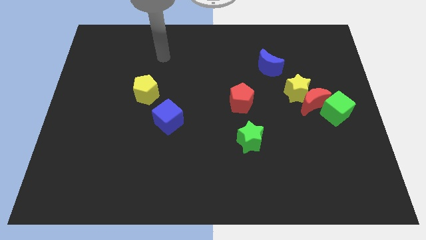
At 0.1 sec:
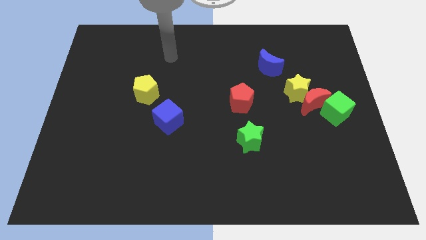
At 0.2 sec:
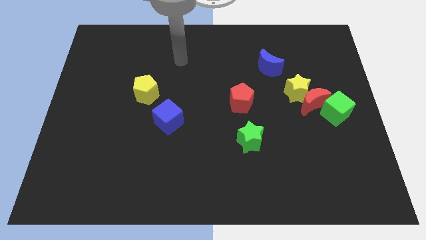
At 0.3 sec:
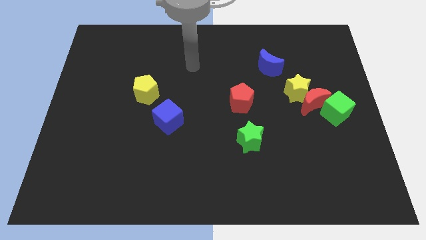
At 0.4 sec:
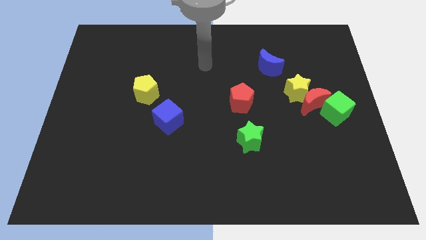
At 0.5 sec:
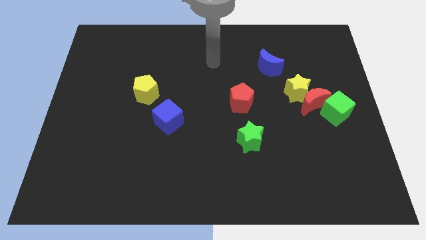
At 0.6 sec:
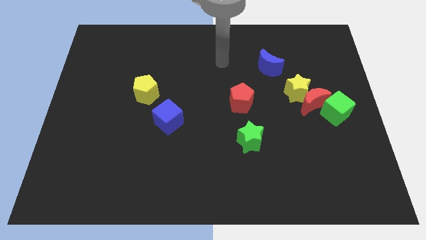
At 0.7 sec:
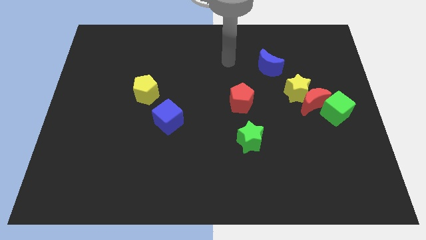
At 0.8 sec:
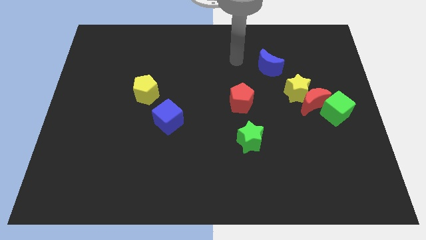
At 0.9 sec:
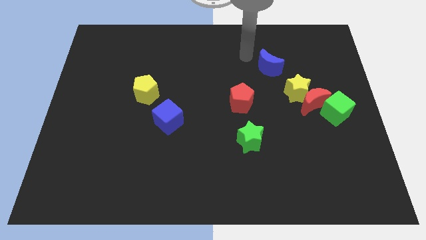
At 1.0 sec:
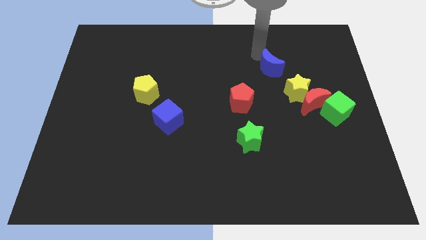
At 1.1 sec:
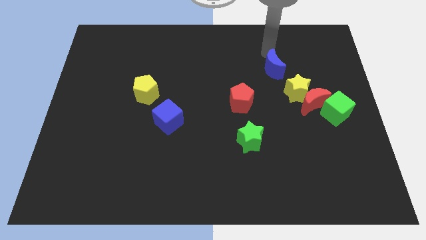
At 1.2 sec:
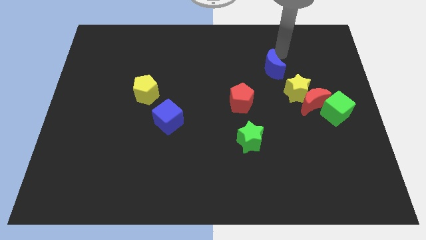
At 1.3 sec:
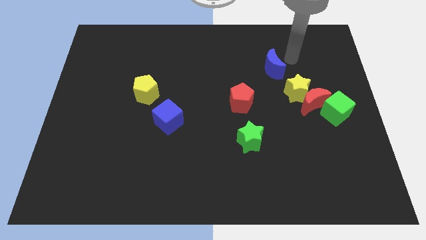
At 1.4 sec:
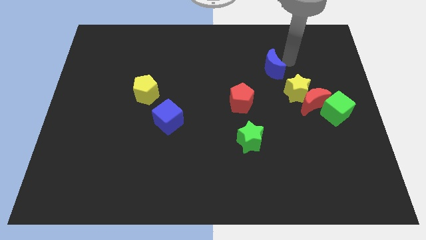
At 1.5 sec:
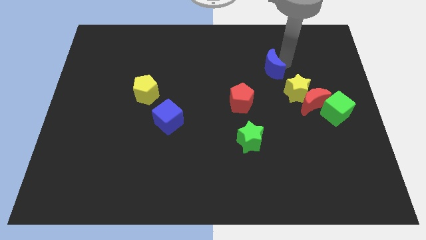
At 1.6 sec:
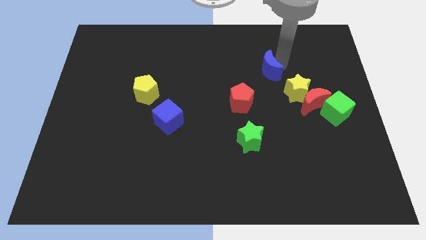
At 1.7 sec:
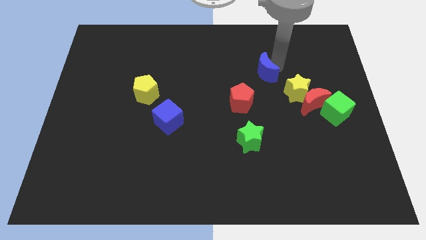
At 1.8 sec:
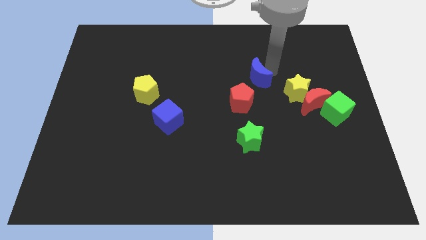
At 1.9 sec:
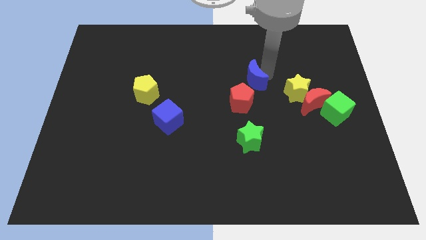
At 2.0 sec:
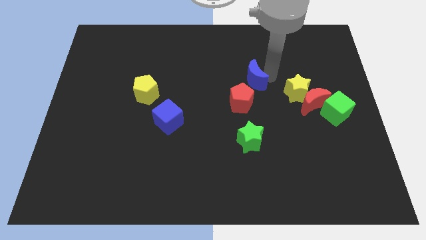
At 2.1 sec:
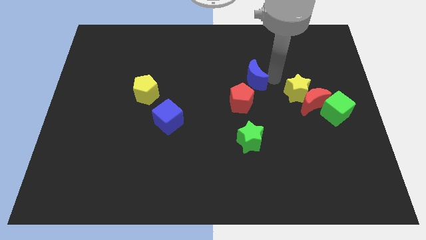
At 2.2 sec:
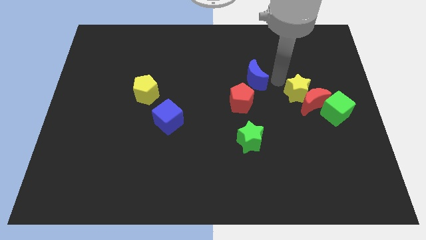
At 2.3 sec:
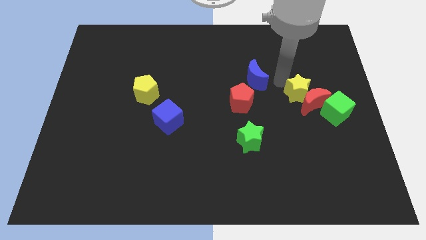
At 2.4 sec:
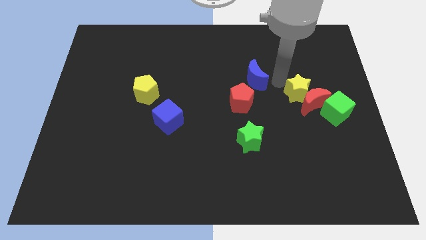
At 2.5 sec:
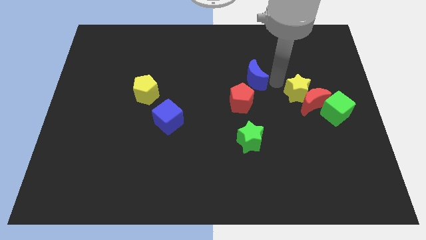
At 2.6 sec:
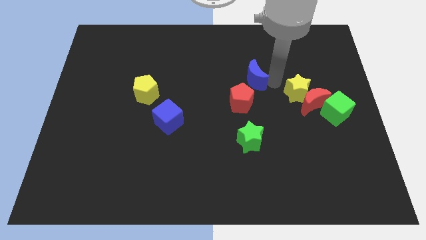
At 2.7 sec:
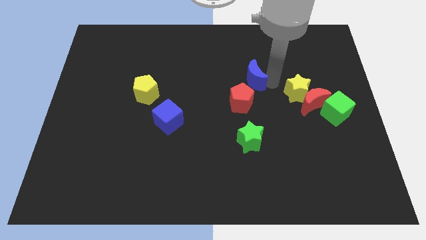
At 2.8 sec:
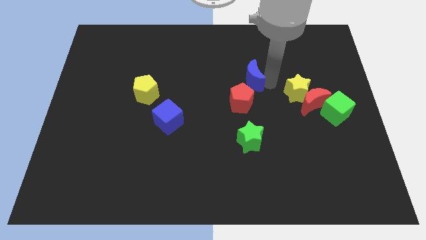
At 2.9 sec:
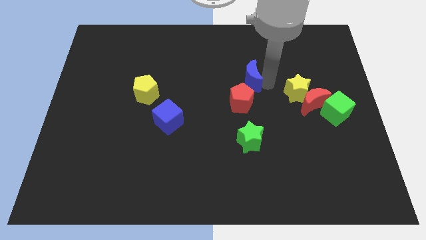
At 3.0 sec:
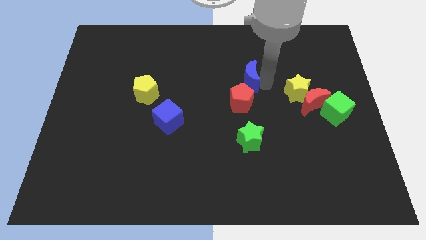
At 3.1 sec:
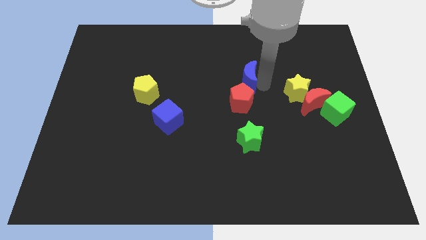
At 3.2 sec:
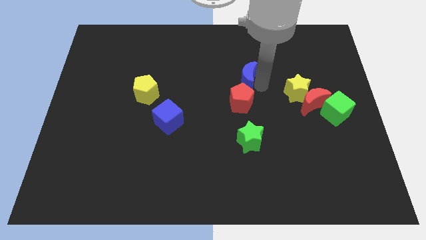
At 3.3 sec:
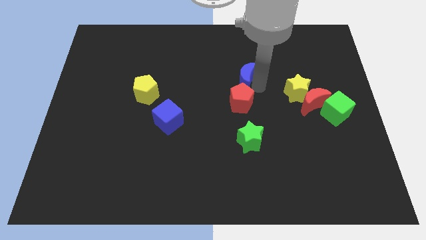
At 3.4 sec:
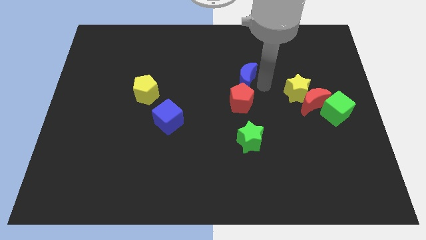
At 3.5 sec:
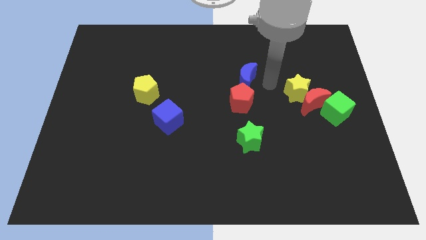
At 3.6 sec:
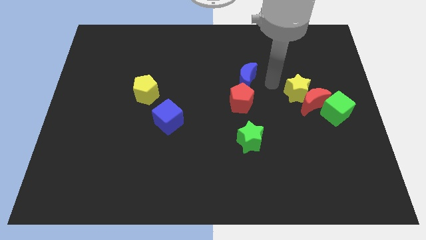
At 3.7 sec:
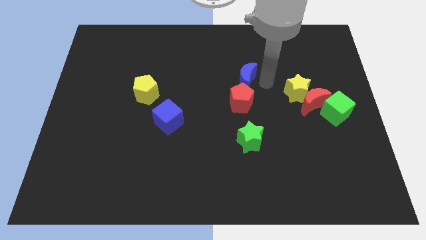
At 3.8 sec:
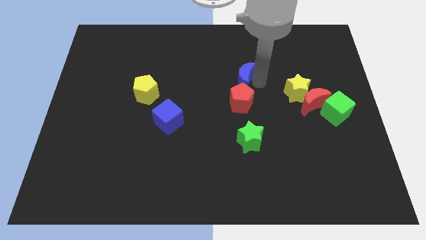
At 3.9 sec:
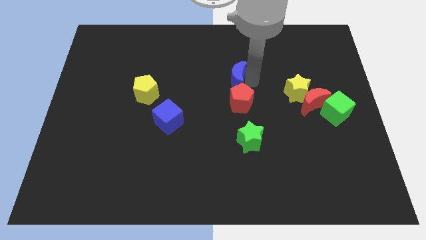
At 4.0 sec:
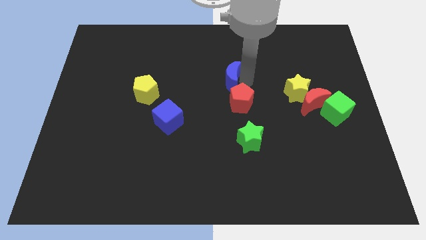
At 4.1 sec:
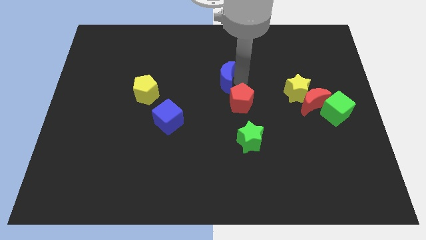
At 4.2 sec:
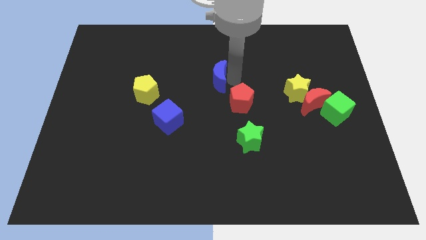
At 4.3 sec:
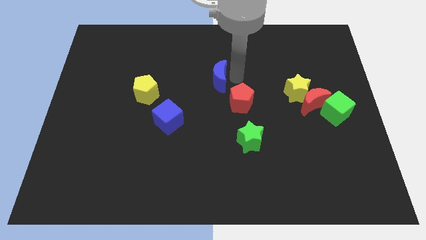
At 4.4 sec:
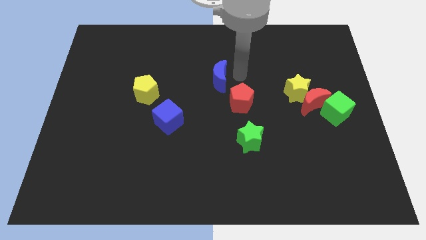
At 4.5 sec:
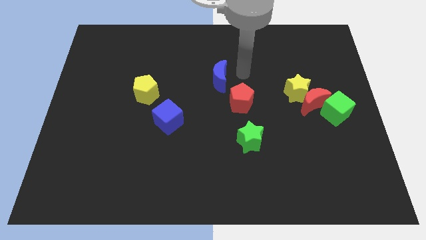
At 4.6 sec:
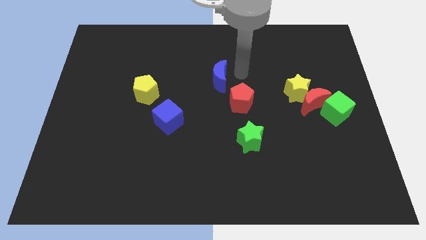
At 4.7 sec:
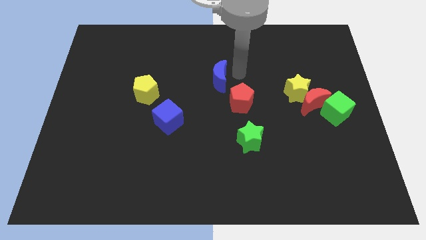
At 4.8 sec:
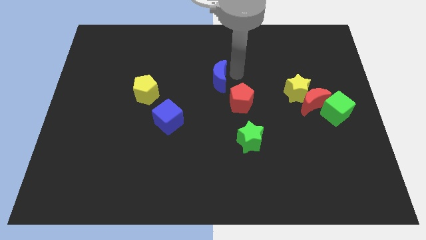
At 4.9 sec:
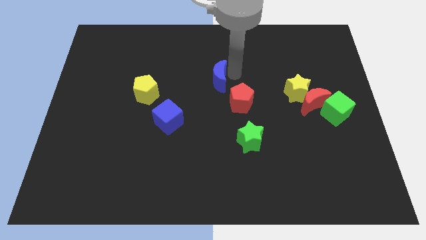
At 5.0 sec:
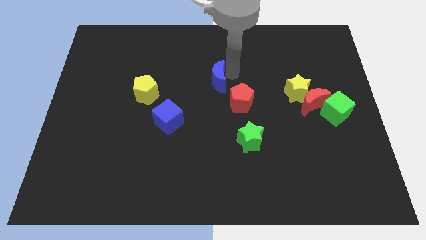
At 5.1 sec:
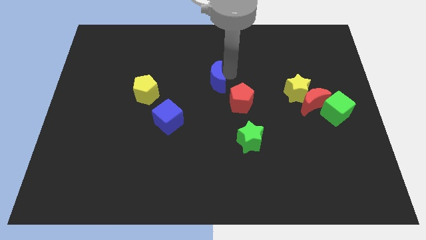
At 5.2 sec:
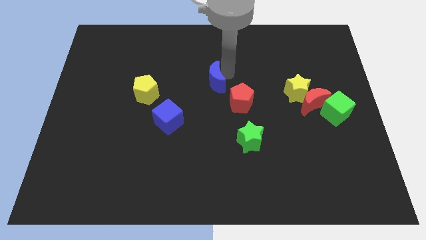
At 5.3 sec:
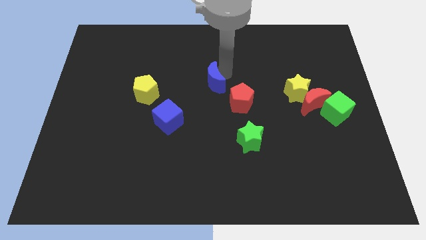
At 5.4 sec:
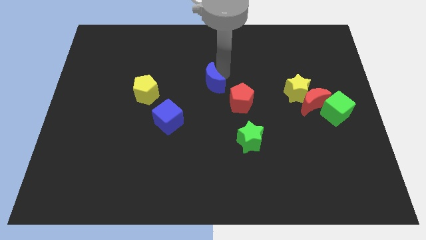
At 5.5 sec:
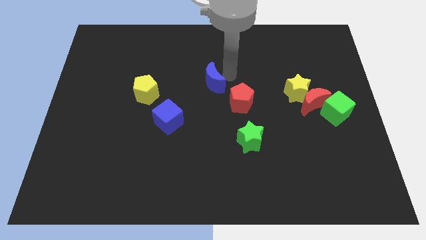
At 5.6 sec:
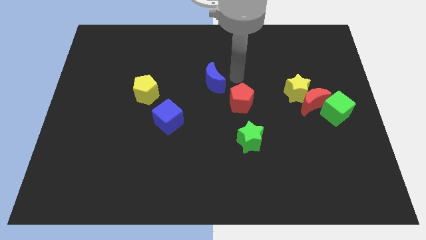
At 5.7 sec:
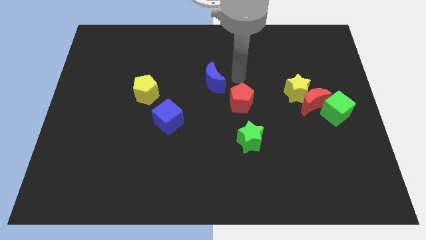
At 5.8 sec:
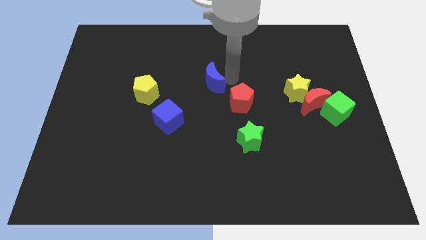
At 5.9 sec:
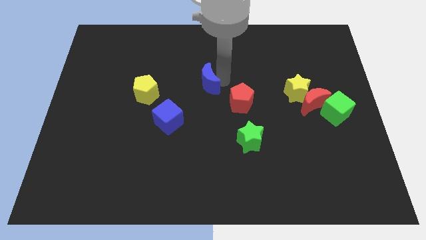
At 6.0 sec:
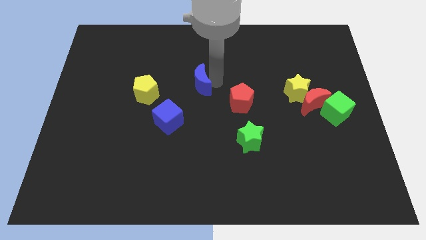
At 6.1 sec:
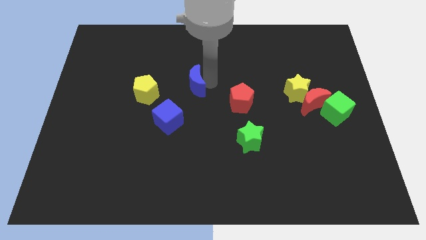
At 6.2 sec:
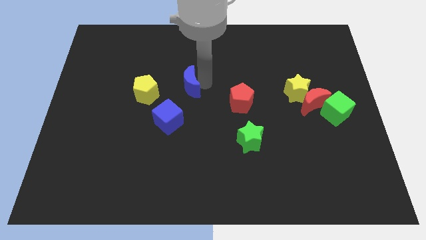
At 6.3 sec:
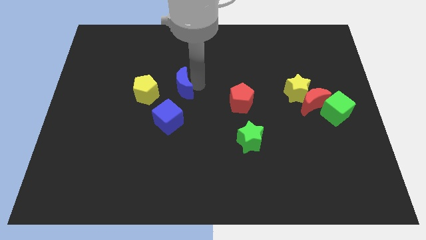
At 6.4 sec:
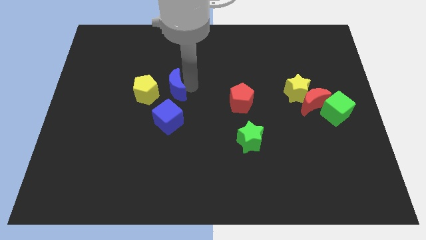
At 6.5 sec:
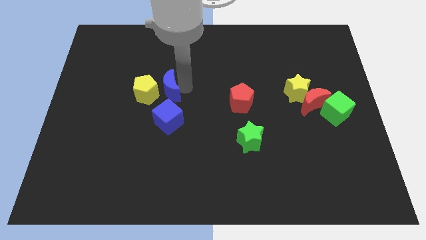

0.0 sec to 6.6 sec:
move the blue moon next to the yellow pentagon
